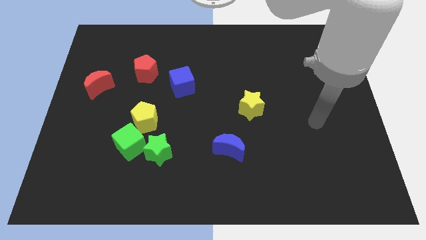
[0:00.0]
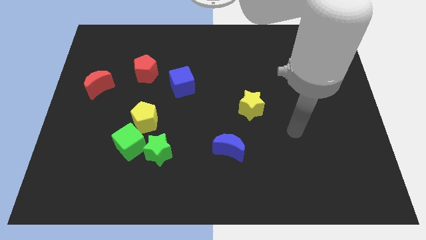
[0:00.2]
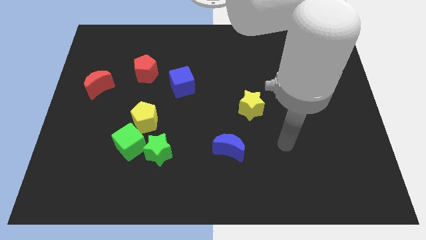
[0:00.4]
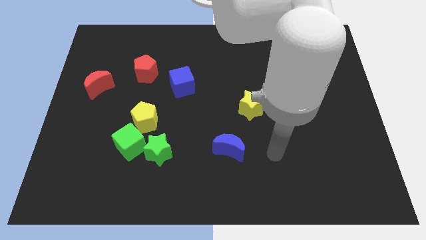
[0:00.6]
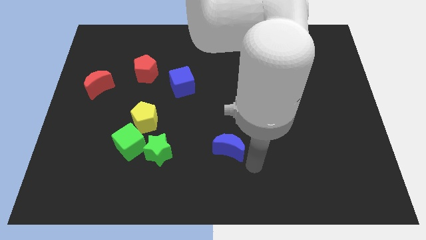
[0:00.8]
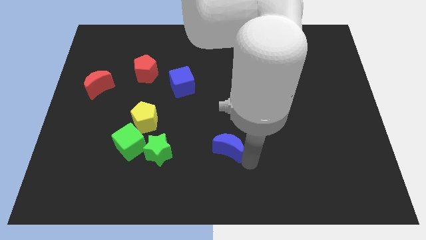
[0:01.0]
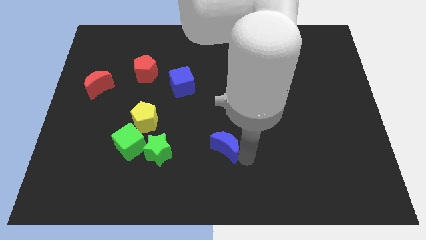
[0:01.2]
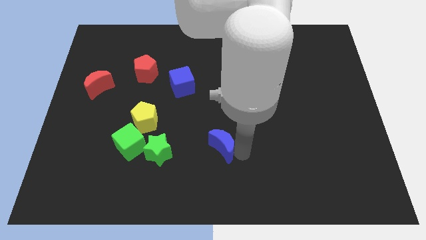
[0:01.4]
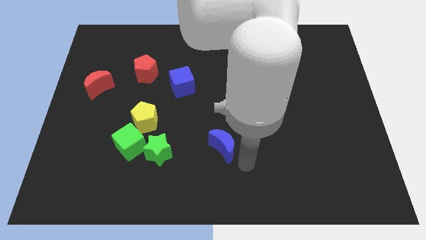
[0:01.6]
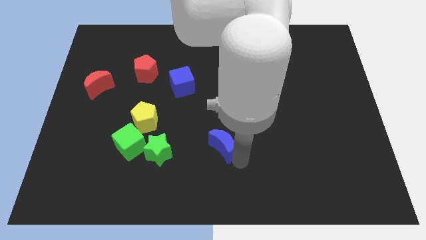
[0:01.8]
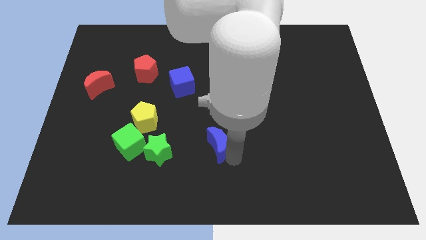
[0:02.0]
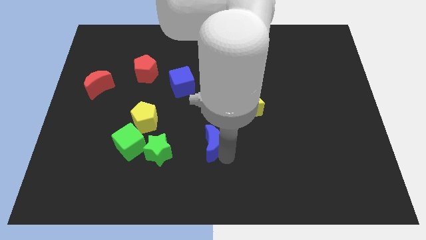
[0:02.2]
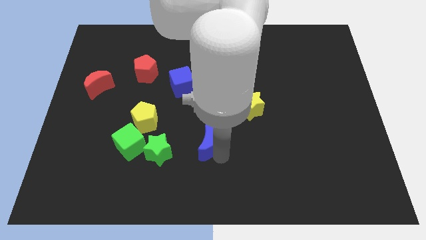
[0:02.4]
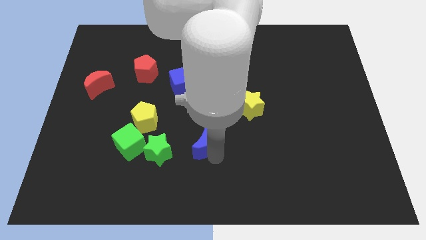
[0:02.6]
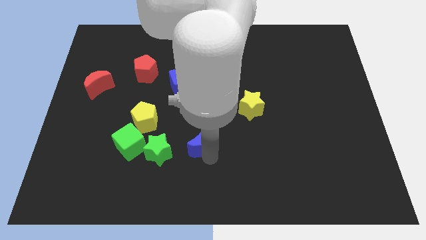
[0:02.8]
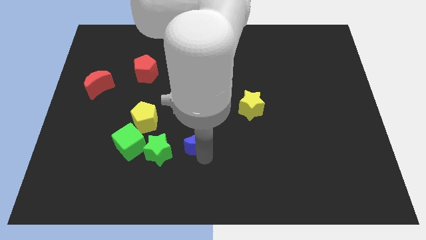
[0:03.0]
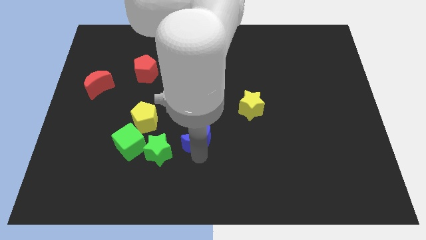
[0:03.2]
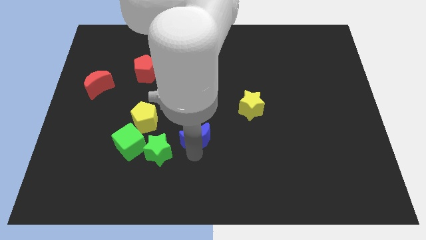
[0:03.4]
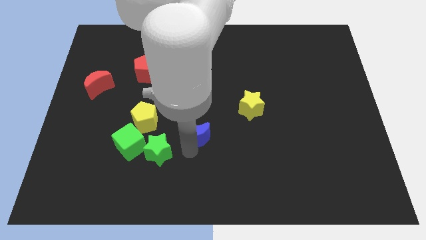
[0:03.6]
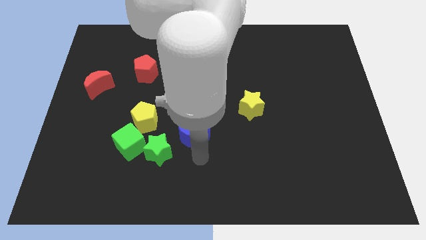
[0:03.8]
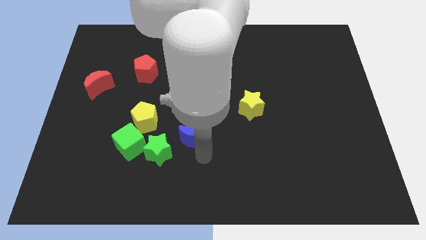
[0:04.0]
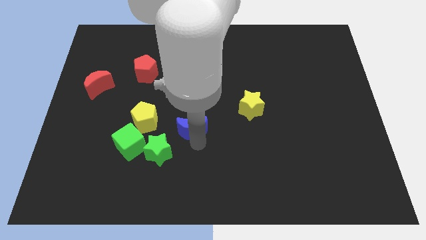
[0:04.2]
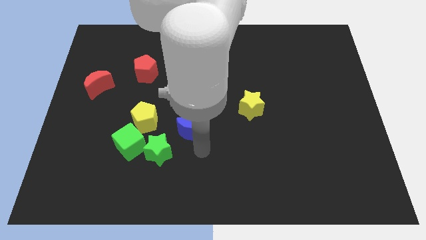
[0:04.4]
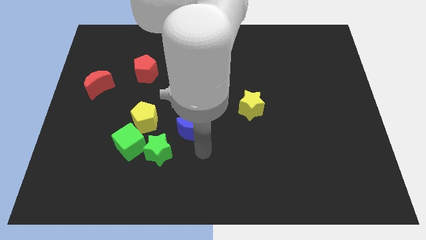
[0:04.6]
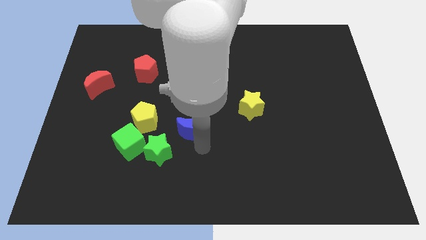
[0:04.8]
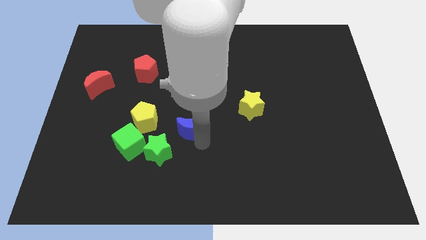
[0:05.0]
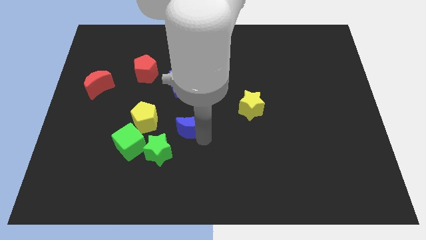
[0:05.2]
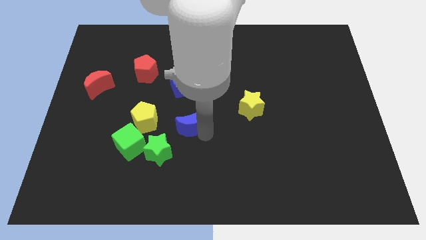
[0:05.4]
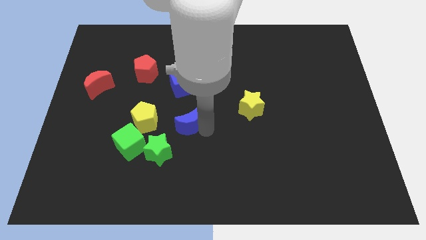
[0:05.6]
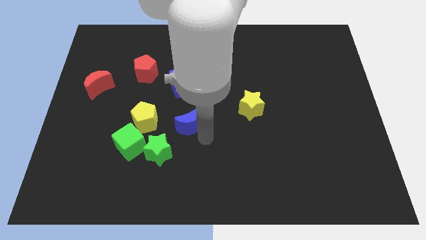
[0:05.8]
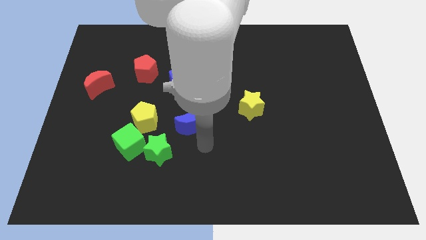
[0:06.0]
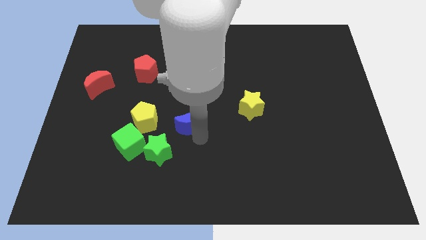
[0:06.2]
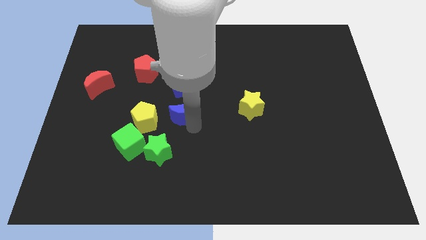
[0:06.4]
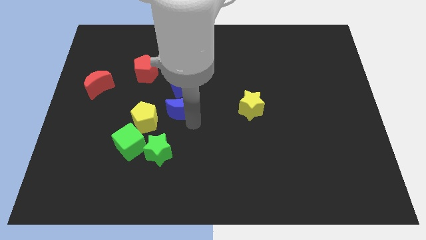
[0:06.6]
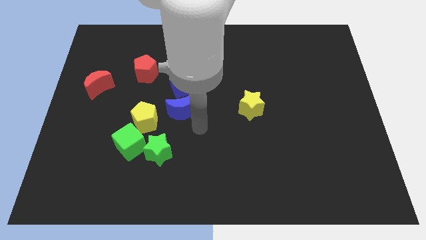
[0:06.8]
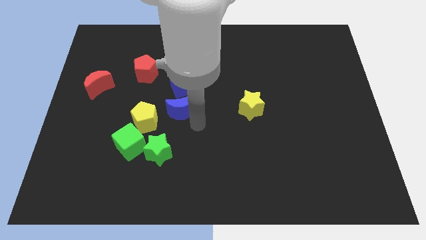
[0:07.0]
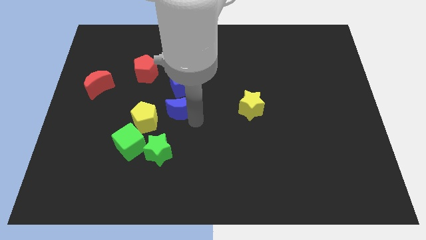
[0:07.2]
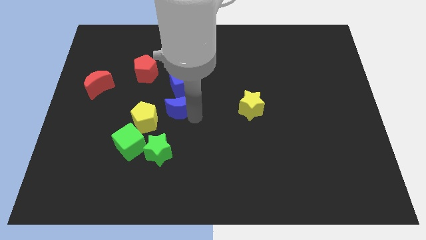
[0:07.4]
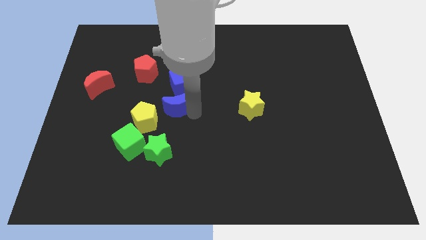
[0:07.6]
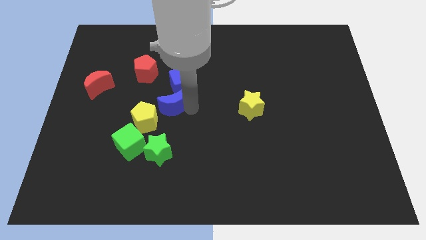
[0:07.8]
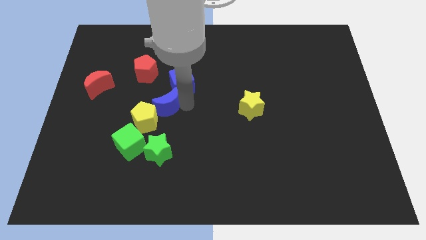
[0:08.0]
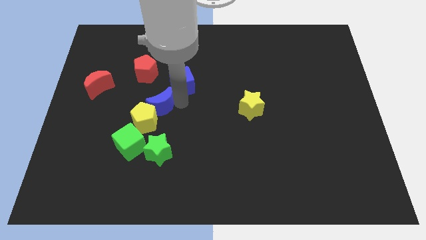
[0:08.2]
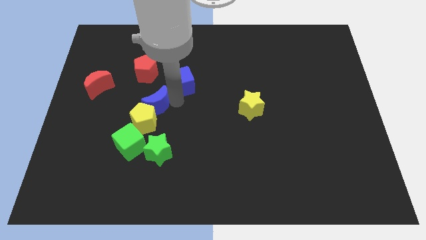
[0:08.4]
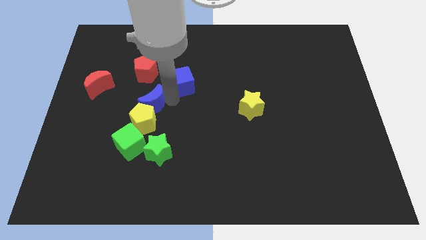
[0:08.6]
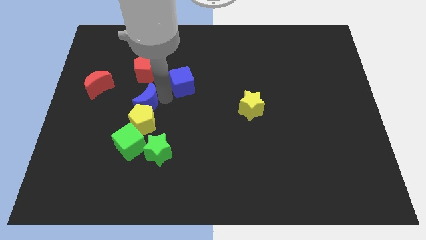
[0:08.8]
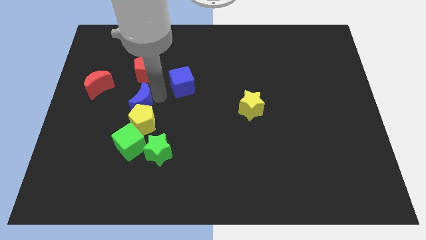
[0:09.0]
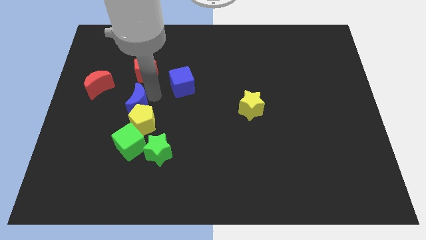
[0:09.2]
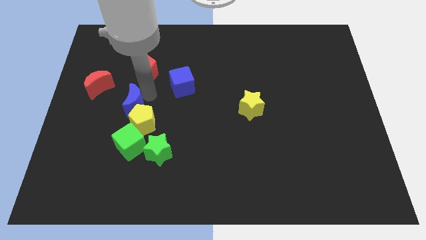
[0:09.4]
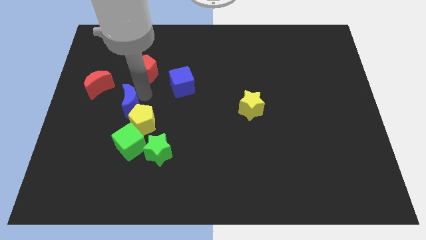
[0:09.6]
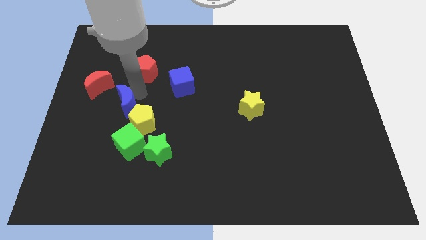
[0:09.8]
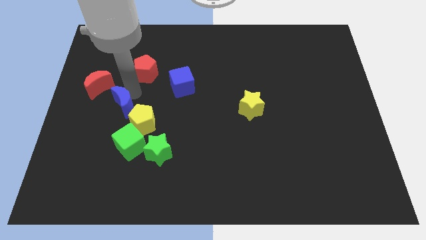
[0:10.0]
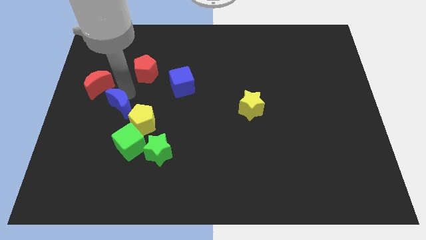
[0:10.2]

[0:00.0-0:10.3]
slide the blue moon to the left of the yellow pentagon

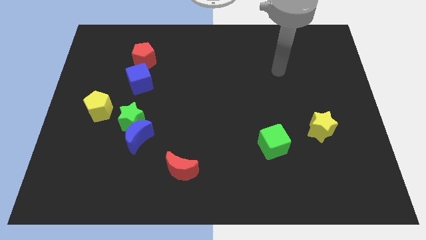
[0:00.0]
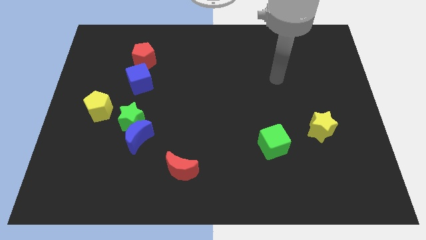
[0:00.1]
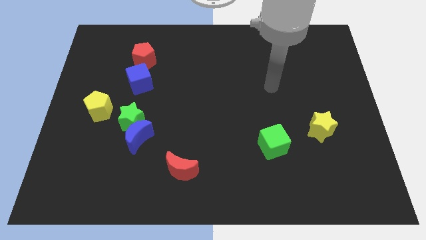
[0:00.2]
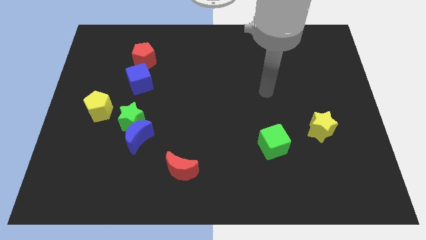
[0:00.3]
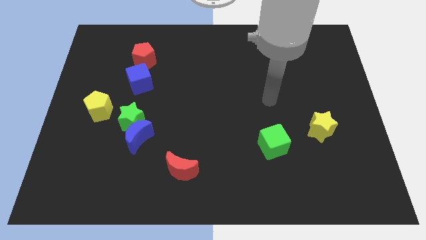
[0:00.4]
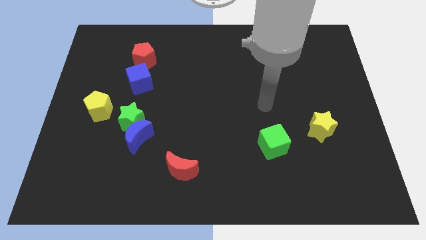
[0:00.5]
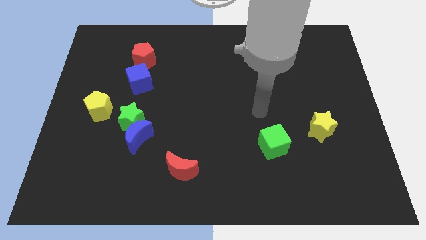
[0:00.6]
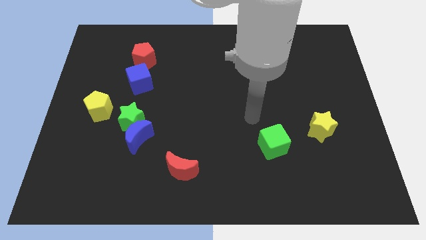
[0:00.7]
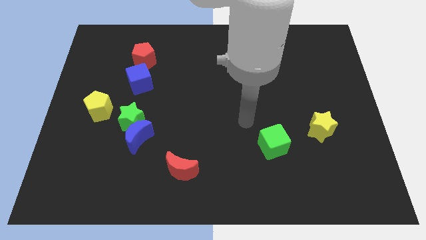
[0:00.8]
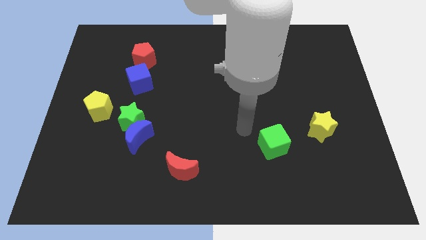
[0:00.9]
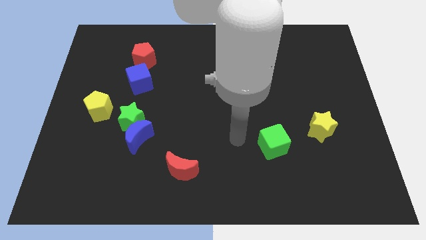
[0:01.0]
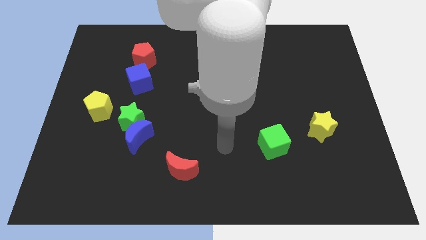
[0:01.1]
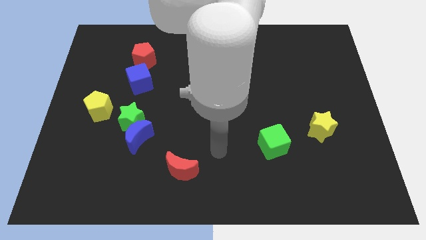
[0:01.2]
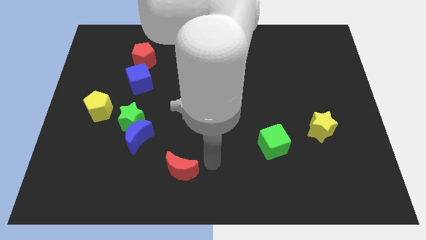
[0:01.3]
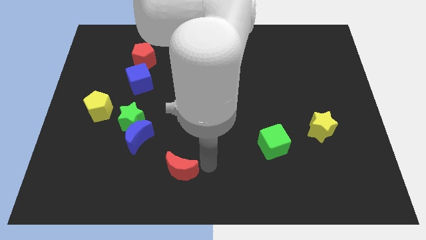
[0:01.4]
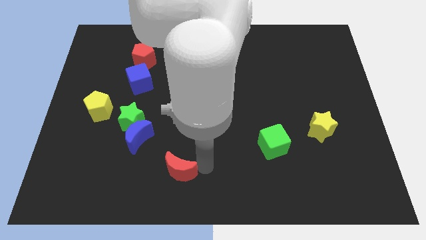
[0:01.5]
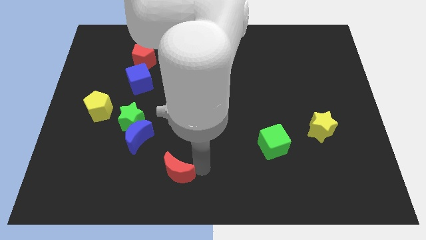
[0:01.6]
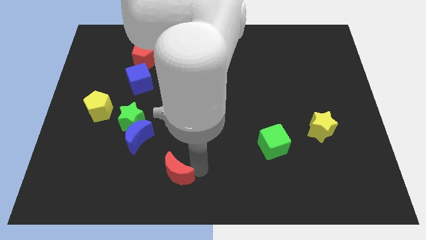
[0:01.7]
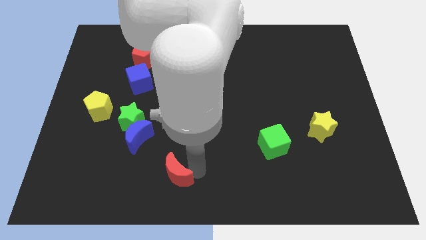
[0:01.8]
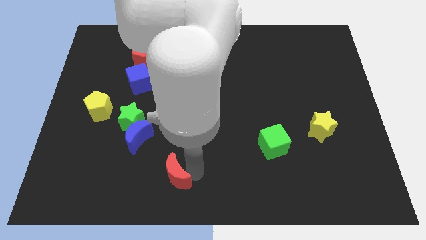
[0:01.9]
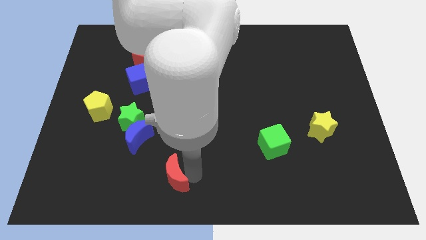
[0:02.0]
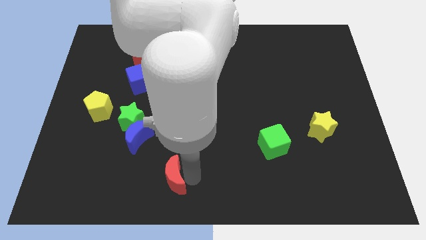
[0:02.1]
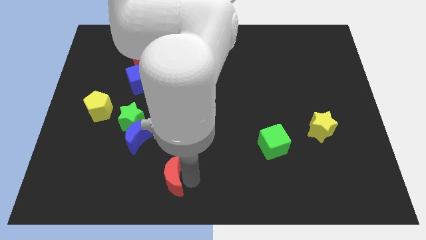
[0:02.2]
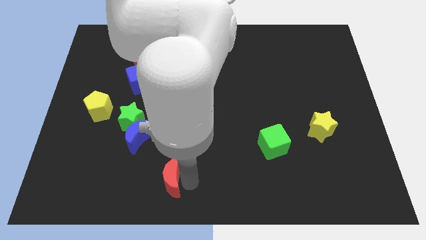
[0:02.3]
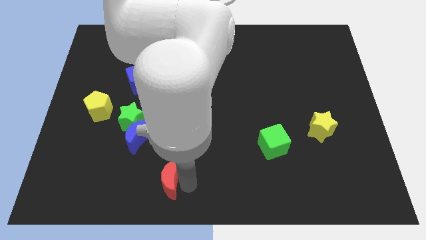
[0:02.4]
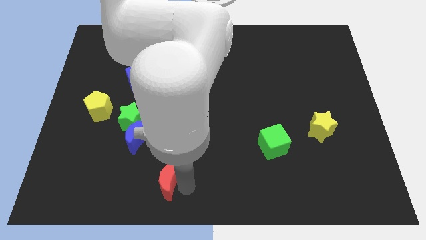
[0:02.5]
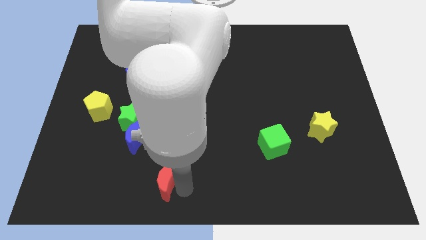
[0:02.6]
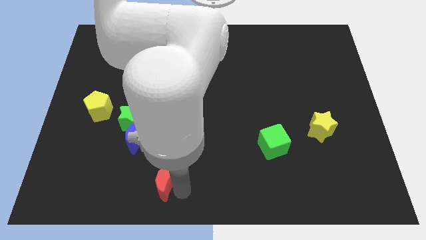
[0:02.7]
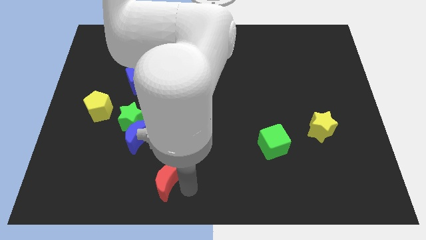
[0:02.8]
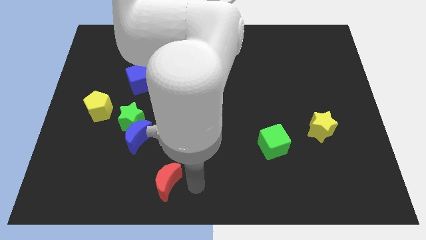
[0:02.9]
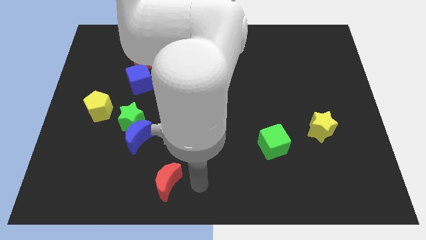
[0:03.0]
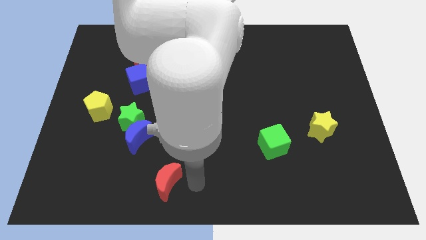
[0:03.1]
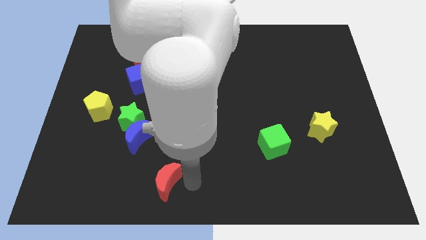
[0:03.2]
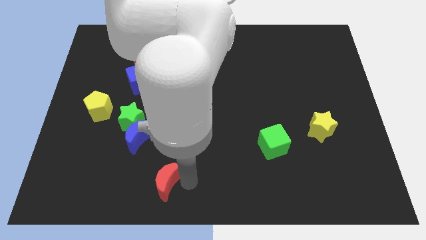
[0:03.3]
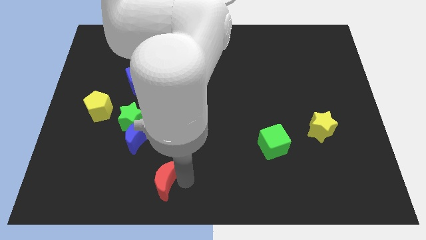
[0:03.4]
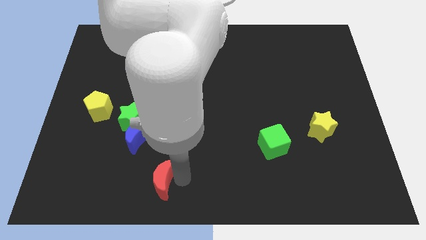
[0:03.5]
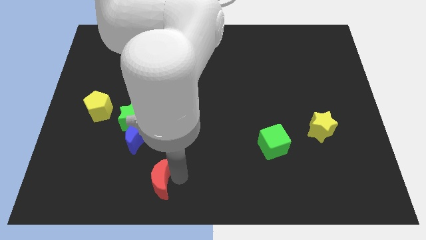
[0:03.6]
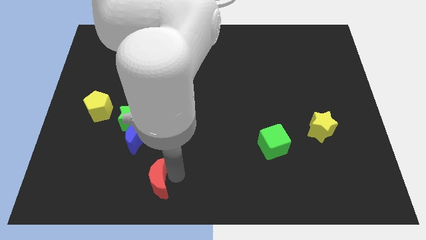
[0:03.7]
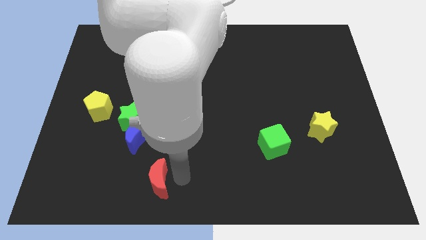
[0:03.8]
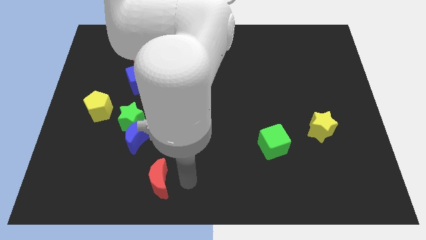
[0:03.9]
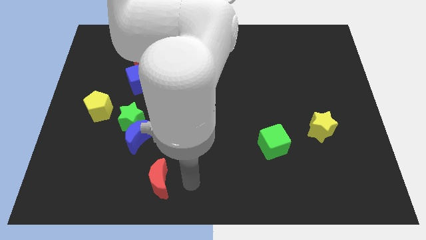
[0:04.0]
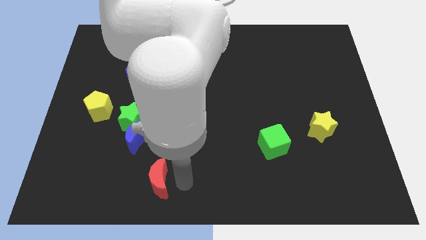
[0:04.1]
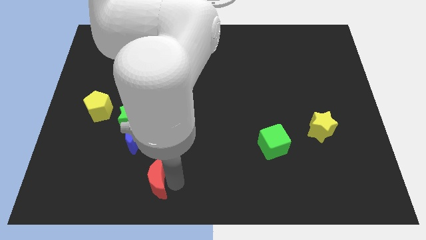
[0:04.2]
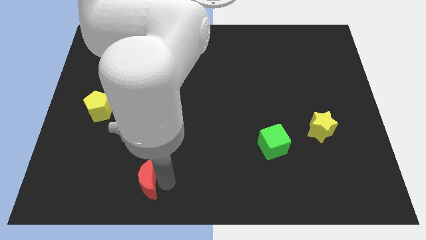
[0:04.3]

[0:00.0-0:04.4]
move the red moon below the blue moon
